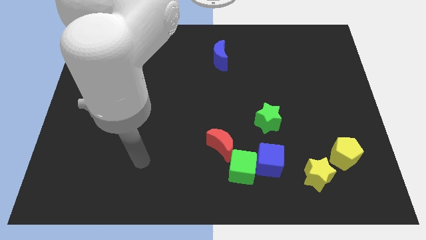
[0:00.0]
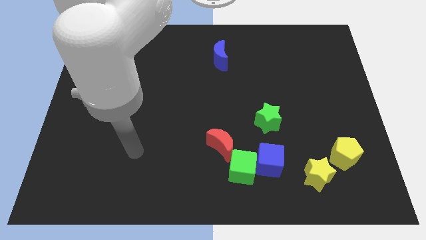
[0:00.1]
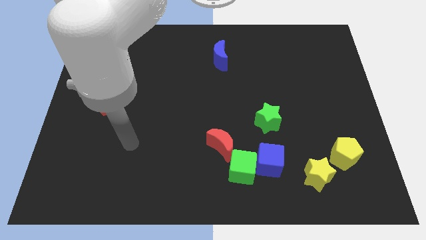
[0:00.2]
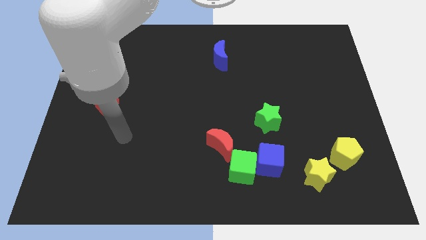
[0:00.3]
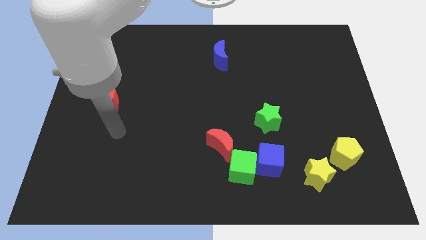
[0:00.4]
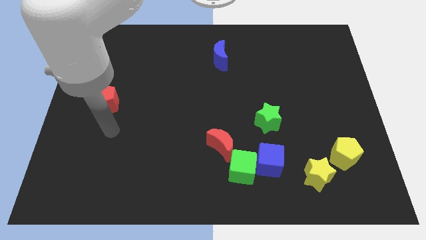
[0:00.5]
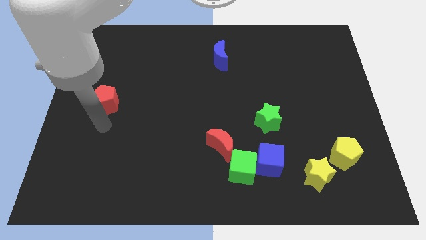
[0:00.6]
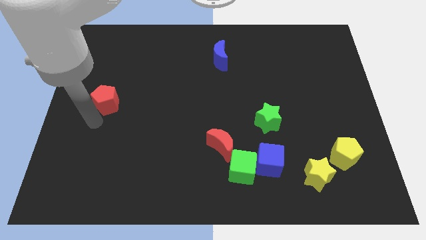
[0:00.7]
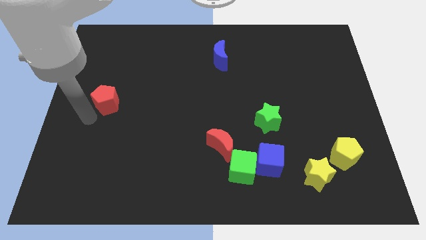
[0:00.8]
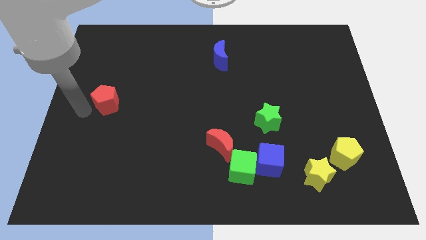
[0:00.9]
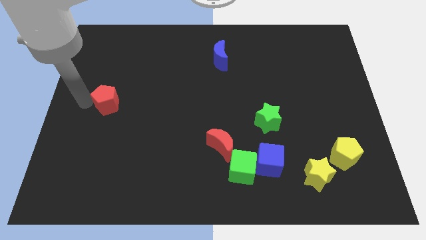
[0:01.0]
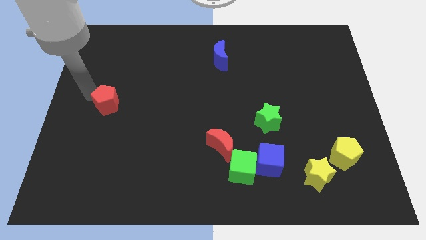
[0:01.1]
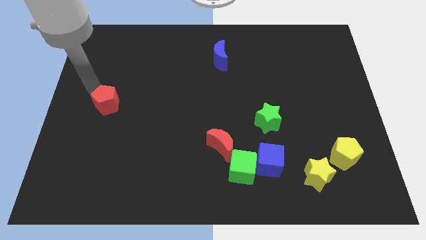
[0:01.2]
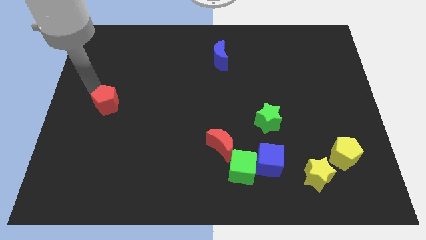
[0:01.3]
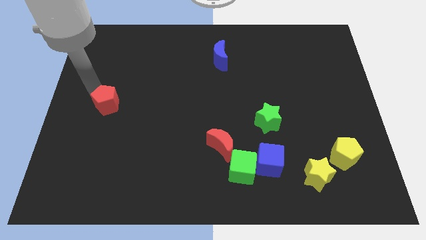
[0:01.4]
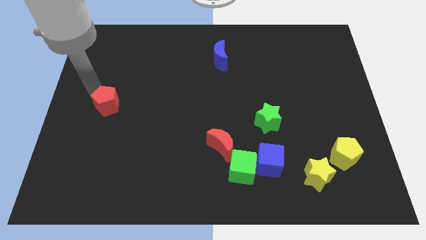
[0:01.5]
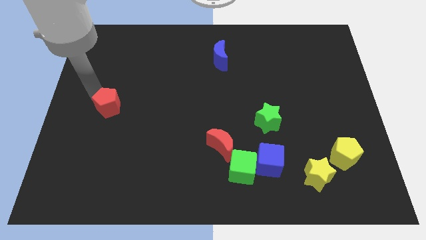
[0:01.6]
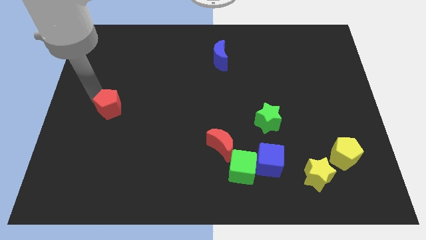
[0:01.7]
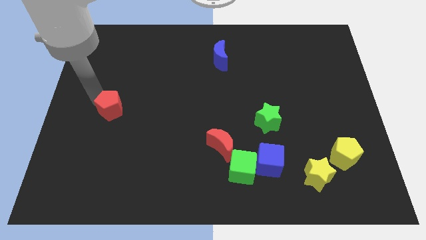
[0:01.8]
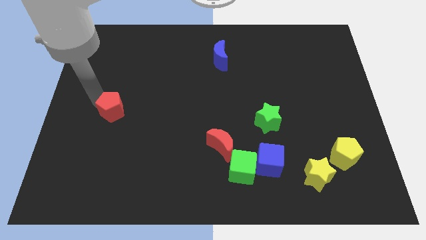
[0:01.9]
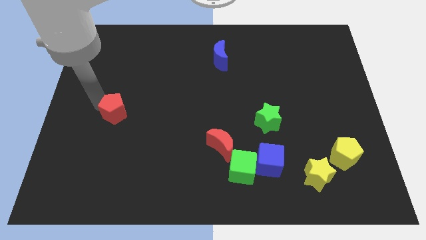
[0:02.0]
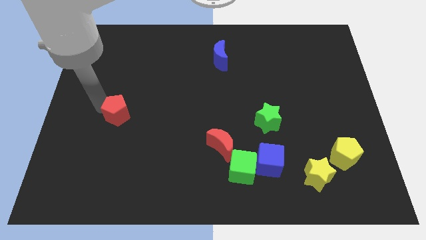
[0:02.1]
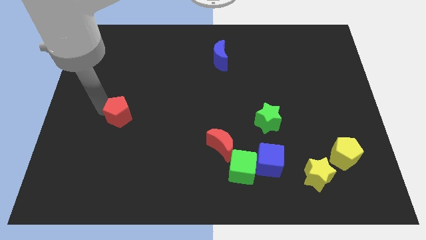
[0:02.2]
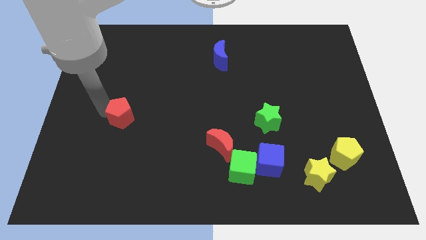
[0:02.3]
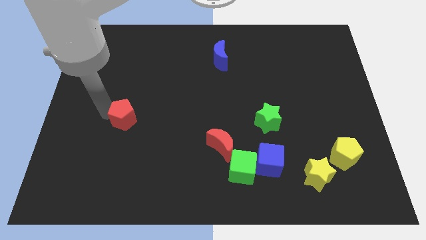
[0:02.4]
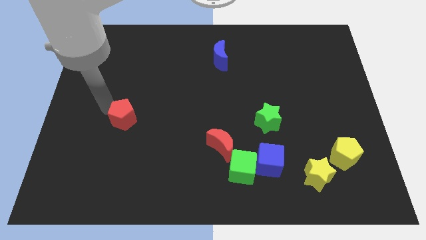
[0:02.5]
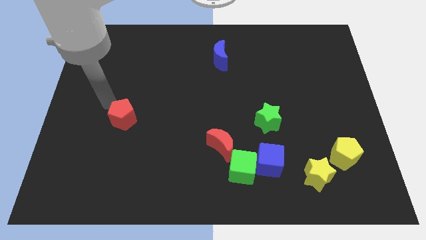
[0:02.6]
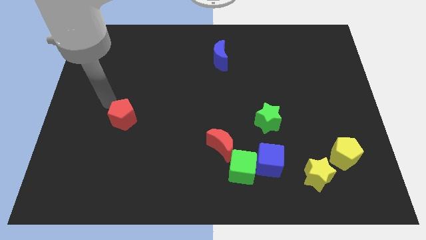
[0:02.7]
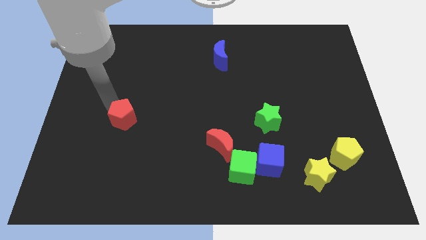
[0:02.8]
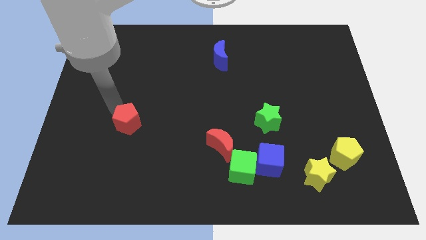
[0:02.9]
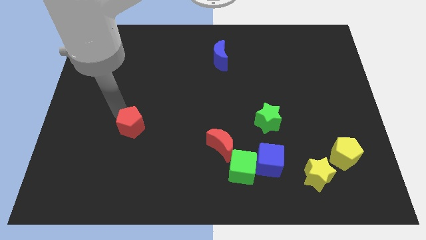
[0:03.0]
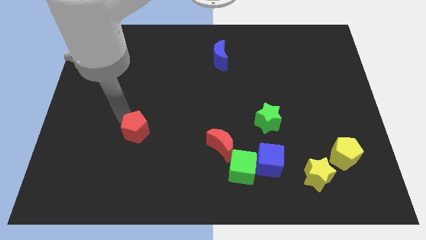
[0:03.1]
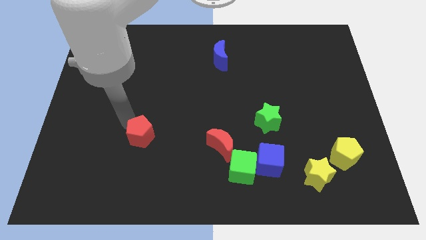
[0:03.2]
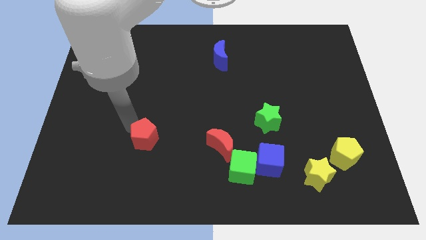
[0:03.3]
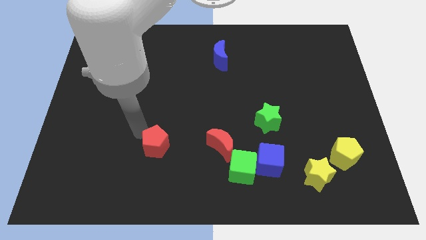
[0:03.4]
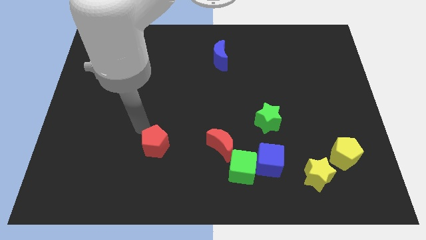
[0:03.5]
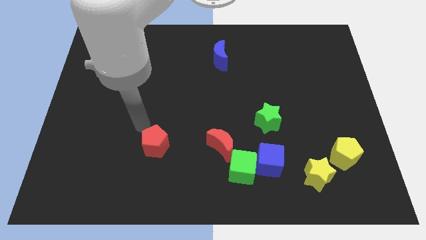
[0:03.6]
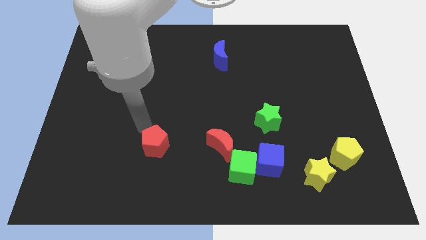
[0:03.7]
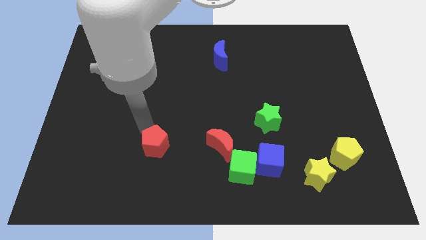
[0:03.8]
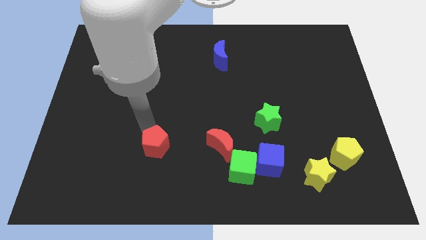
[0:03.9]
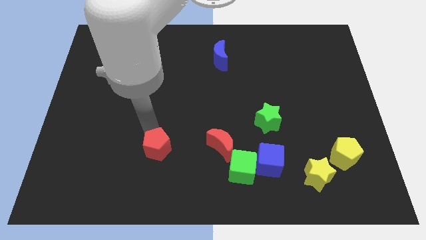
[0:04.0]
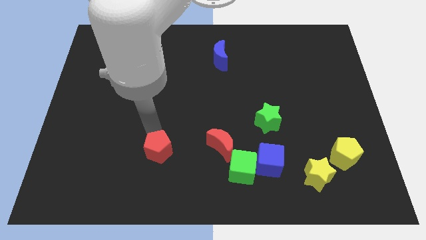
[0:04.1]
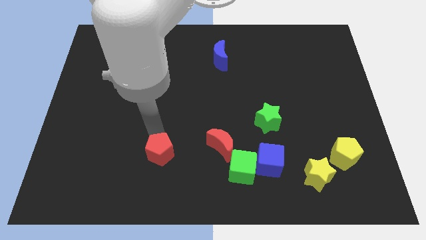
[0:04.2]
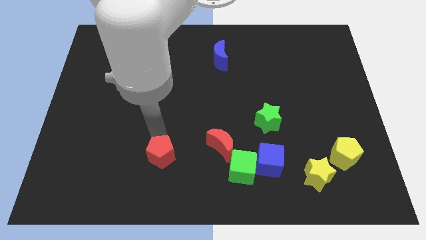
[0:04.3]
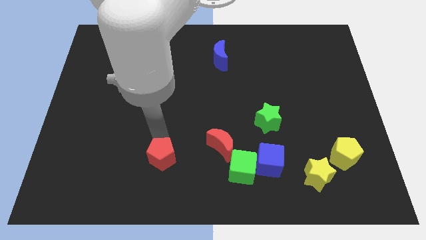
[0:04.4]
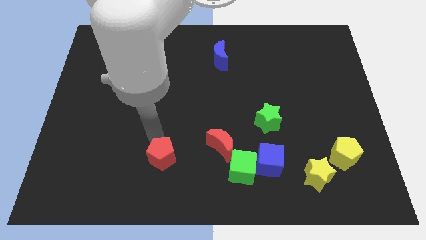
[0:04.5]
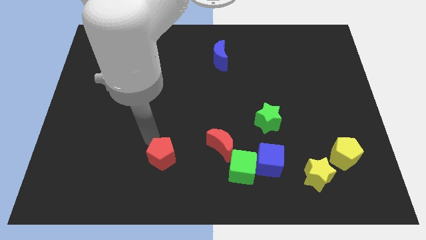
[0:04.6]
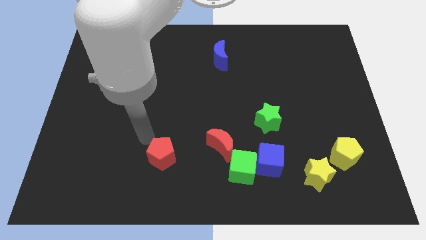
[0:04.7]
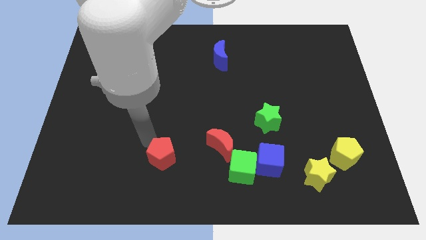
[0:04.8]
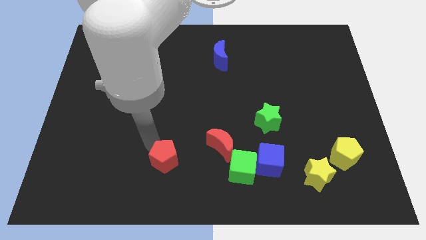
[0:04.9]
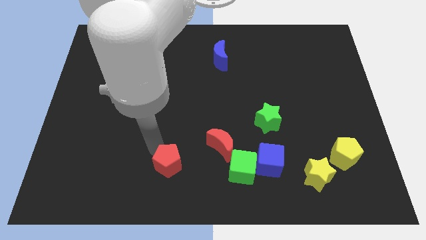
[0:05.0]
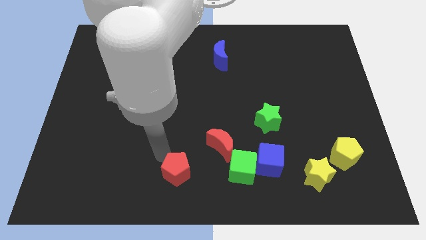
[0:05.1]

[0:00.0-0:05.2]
push the red pentagon to the bottom side

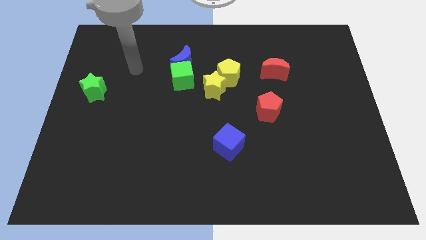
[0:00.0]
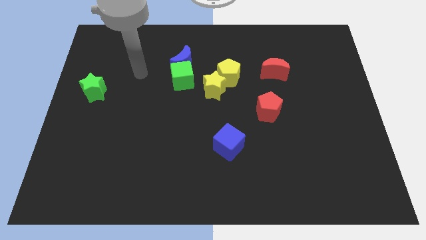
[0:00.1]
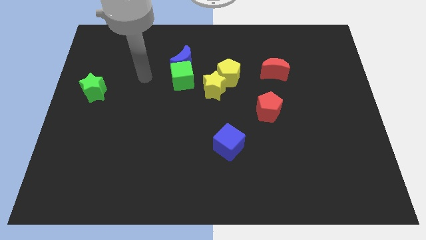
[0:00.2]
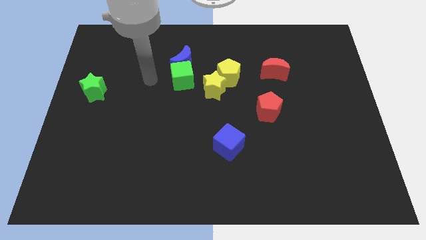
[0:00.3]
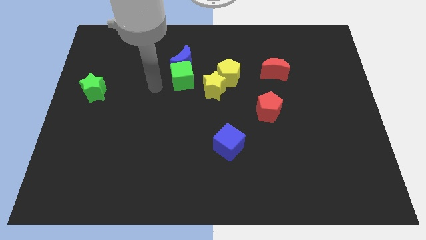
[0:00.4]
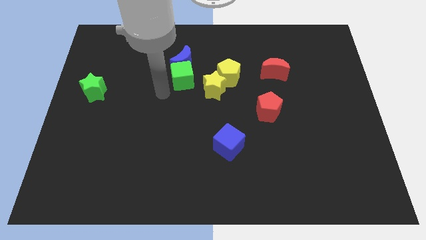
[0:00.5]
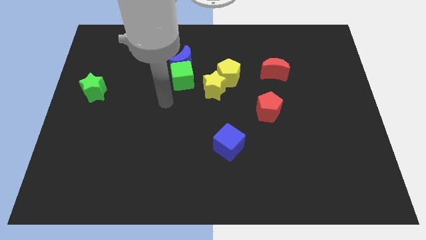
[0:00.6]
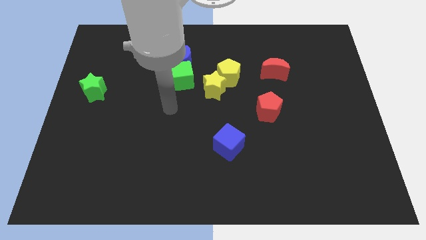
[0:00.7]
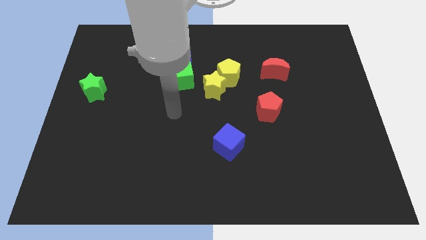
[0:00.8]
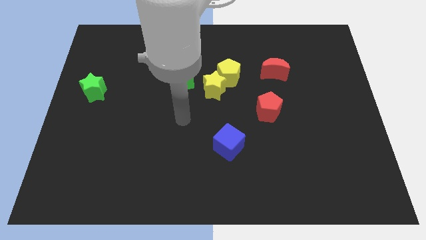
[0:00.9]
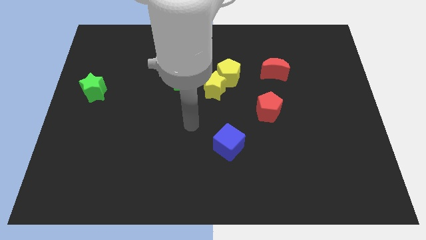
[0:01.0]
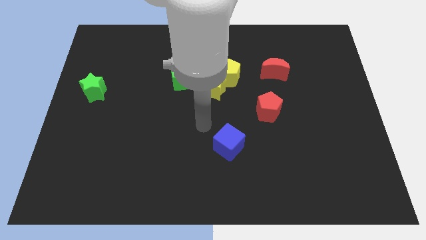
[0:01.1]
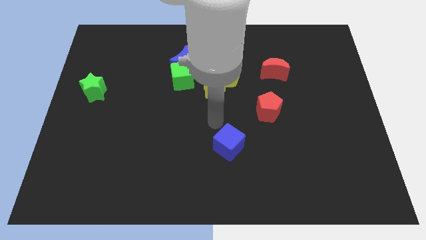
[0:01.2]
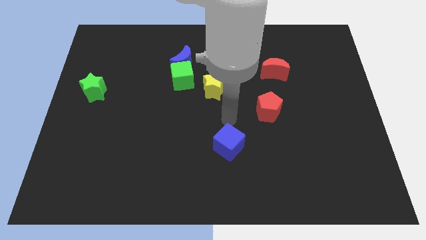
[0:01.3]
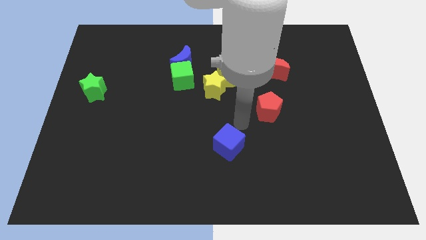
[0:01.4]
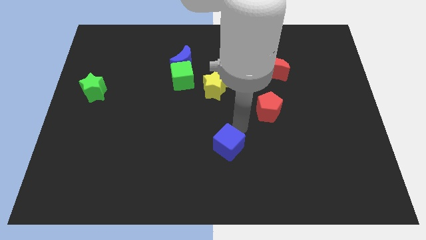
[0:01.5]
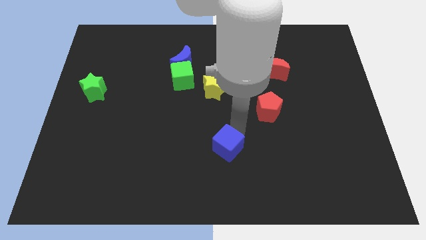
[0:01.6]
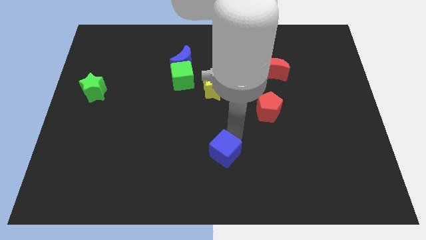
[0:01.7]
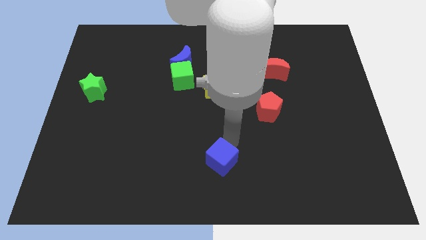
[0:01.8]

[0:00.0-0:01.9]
push the blue cube to the bottom

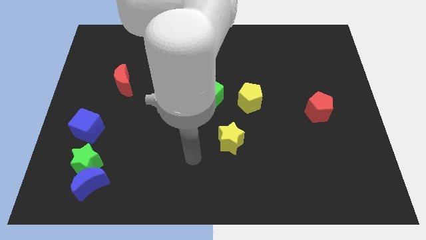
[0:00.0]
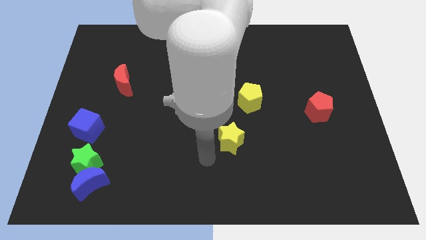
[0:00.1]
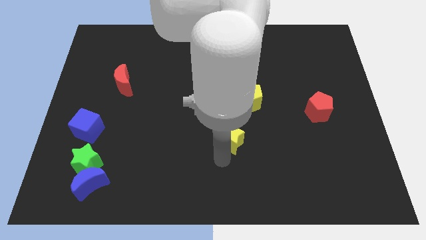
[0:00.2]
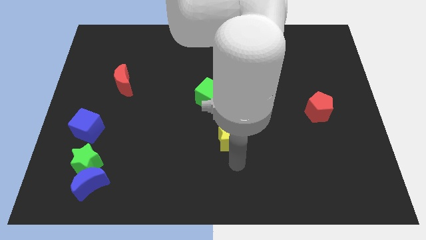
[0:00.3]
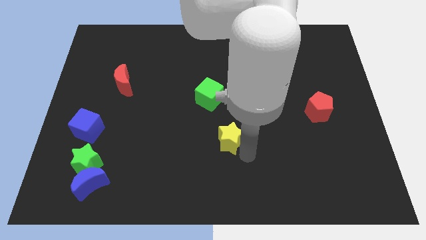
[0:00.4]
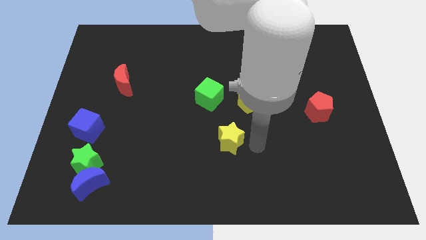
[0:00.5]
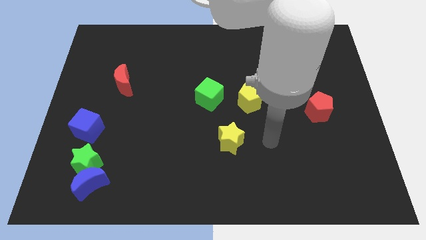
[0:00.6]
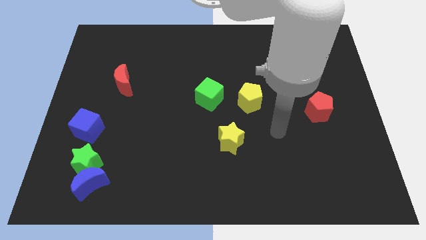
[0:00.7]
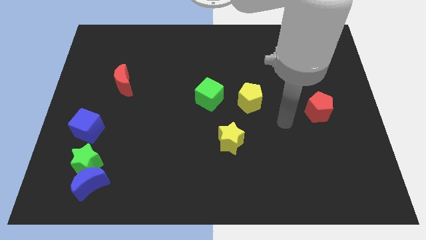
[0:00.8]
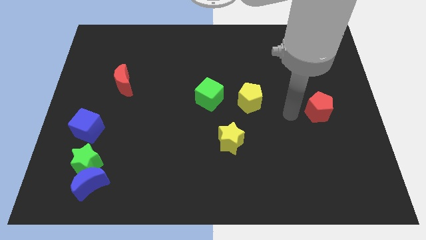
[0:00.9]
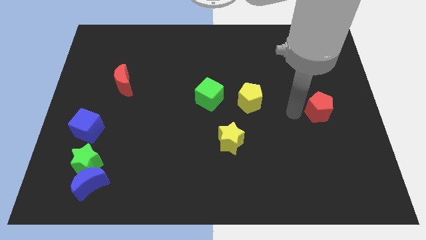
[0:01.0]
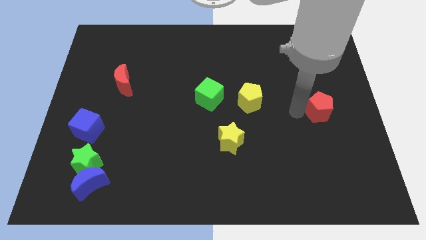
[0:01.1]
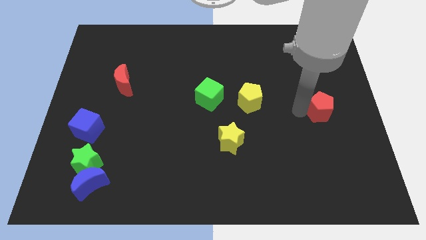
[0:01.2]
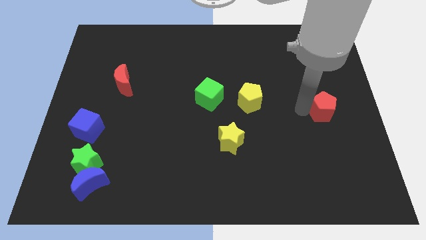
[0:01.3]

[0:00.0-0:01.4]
push the red pentagon to the right side
